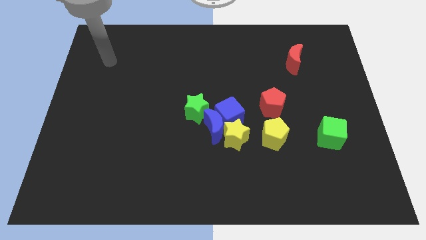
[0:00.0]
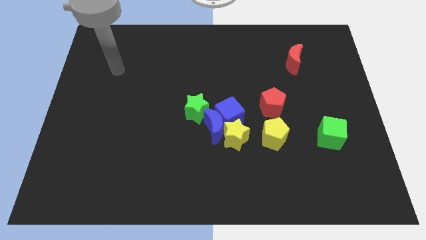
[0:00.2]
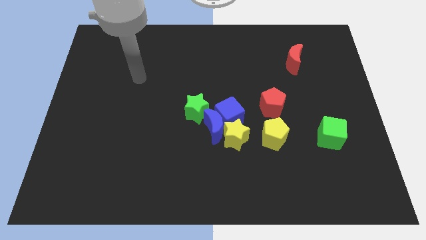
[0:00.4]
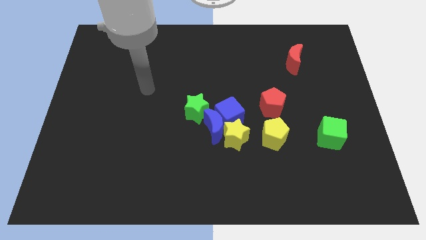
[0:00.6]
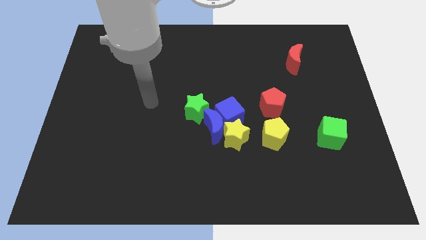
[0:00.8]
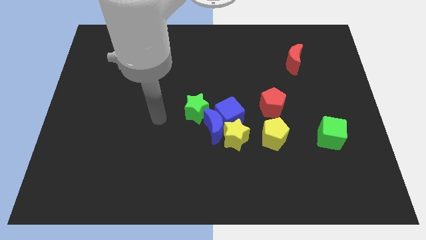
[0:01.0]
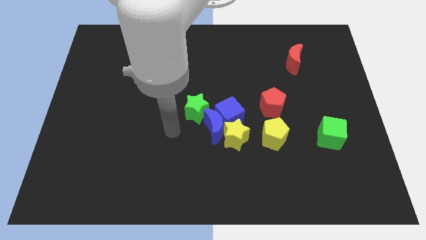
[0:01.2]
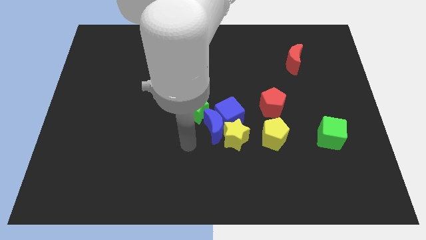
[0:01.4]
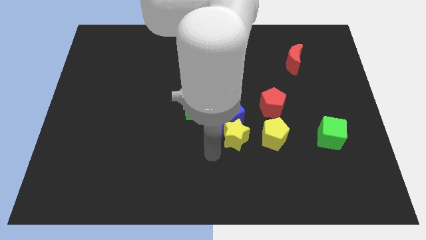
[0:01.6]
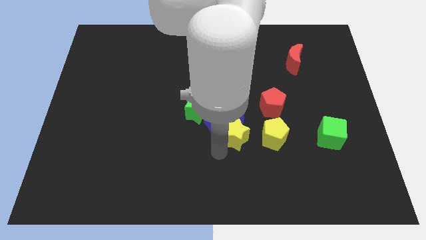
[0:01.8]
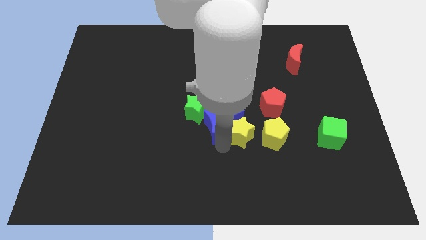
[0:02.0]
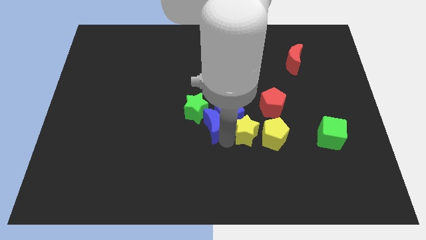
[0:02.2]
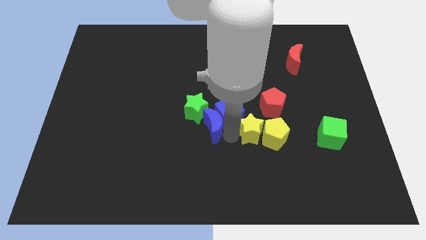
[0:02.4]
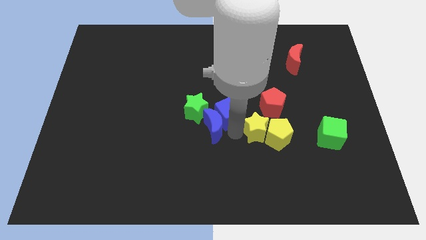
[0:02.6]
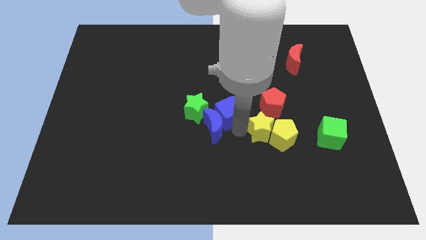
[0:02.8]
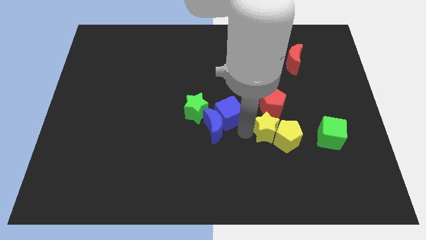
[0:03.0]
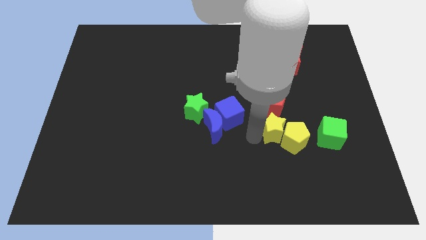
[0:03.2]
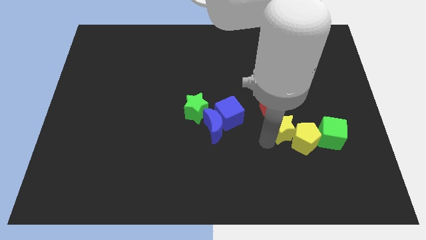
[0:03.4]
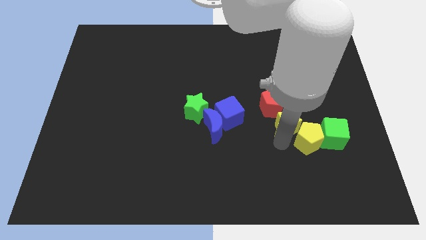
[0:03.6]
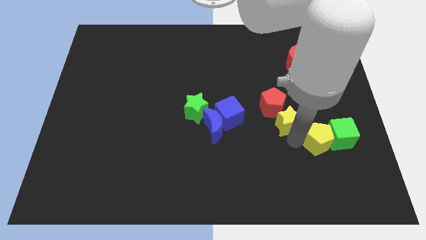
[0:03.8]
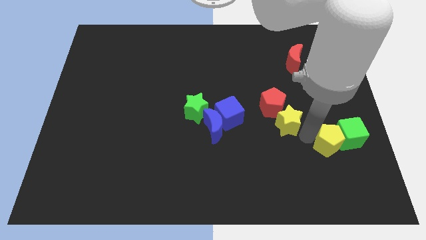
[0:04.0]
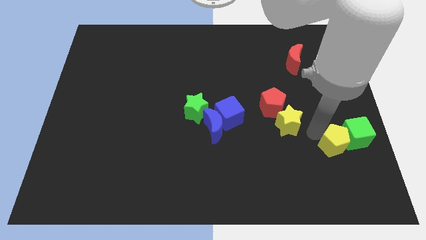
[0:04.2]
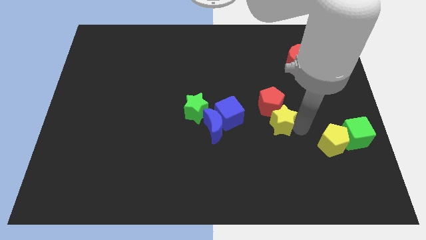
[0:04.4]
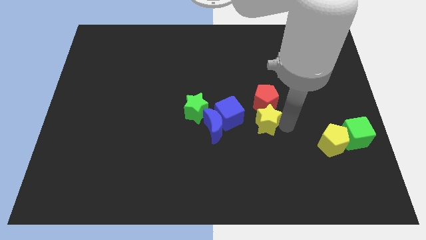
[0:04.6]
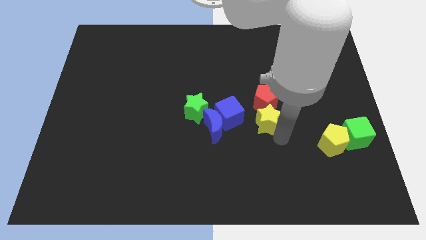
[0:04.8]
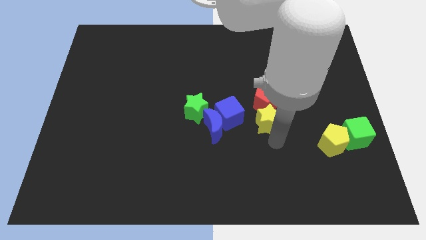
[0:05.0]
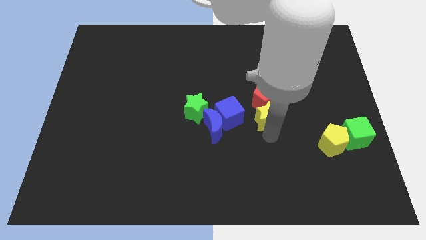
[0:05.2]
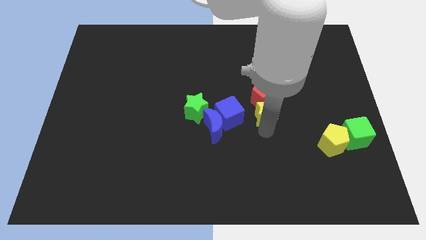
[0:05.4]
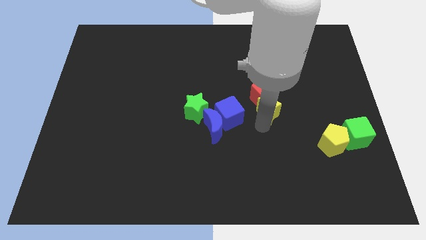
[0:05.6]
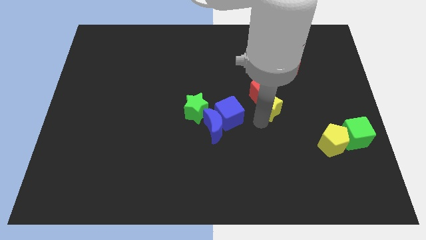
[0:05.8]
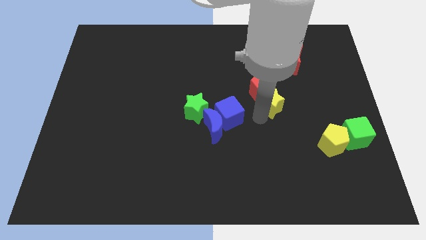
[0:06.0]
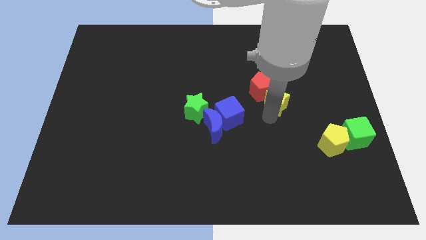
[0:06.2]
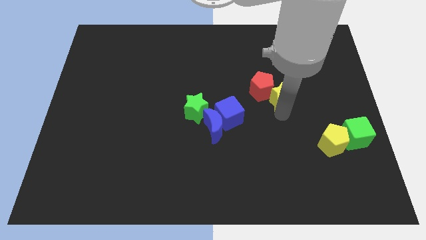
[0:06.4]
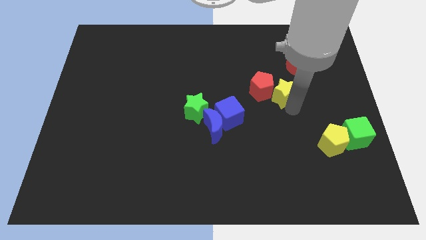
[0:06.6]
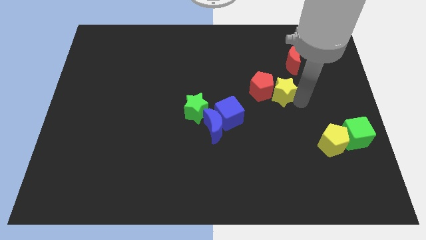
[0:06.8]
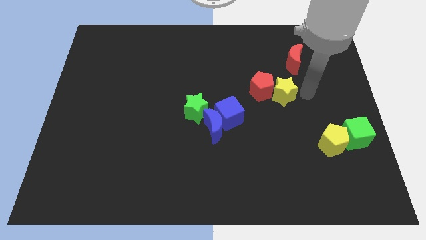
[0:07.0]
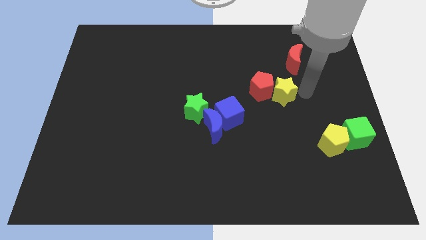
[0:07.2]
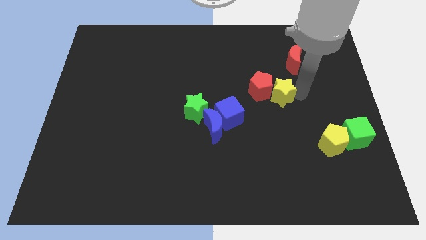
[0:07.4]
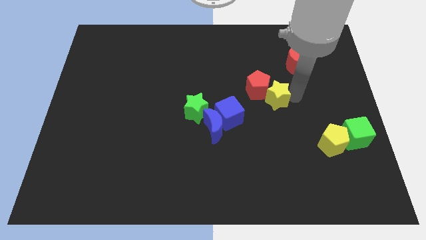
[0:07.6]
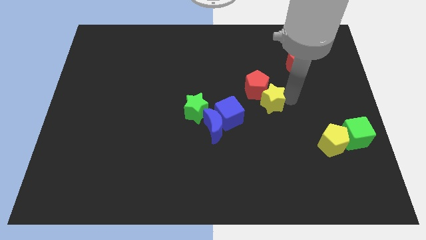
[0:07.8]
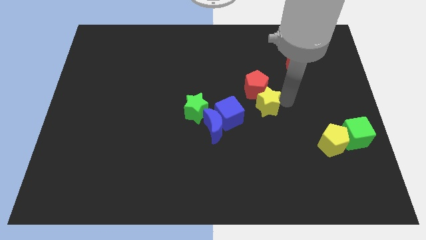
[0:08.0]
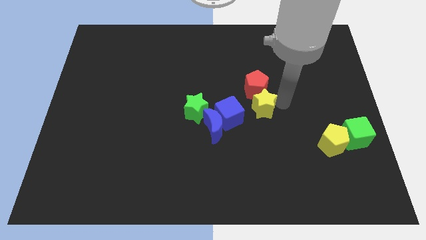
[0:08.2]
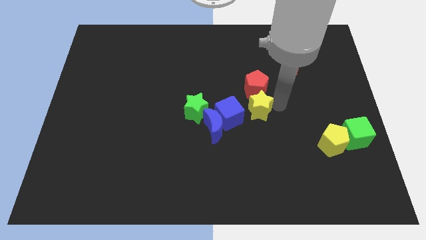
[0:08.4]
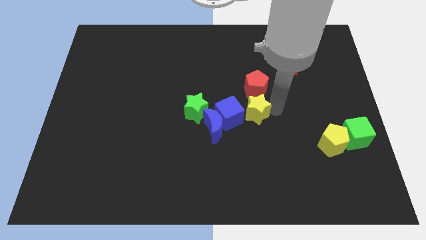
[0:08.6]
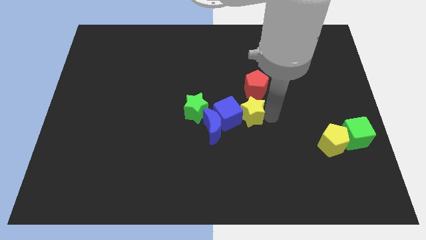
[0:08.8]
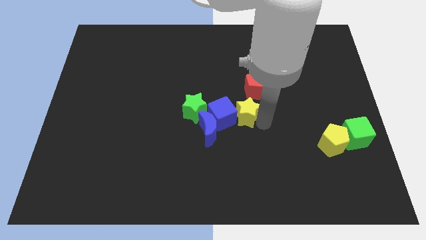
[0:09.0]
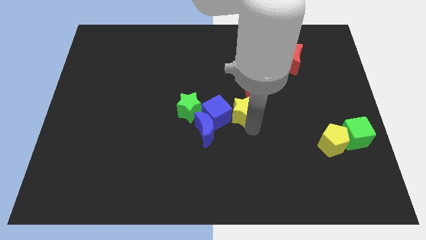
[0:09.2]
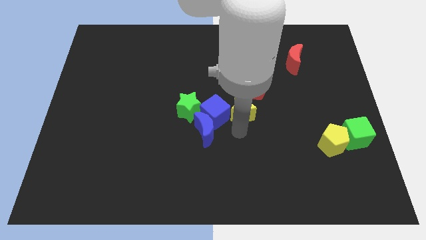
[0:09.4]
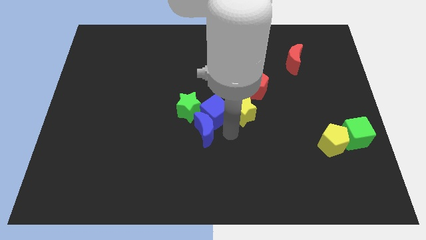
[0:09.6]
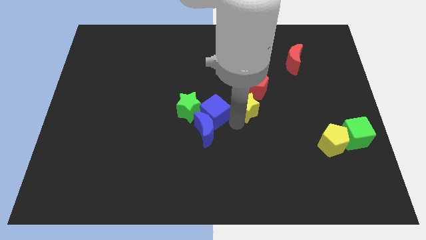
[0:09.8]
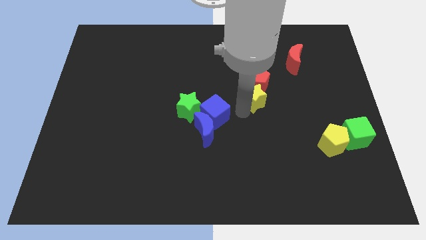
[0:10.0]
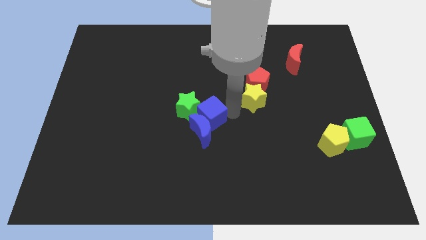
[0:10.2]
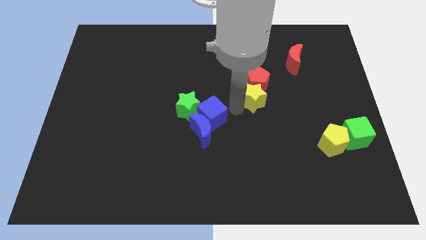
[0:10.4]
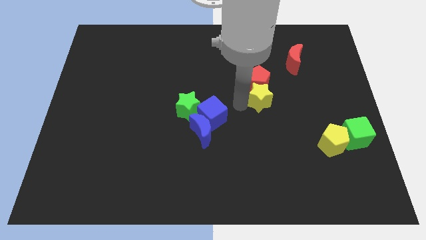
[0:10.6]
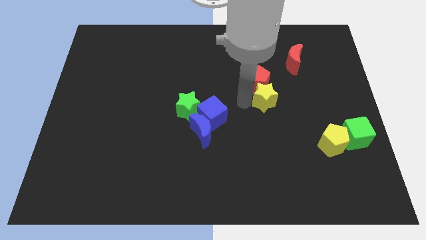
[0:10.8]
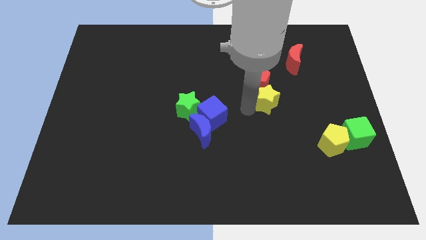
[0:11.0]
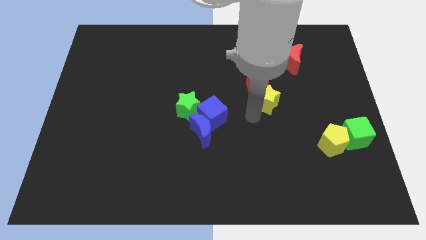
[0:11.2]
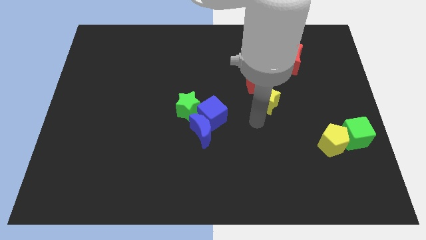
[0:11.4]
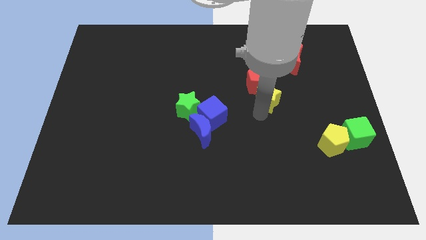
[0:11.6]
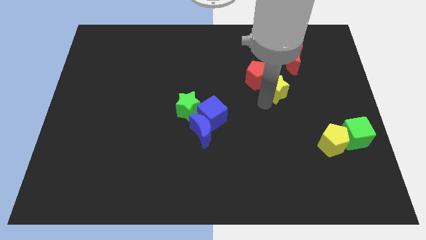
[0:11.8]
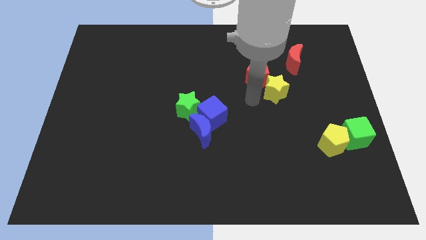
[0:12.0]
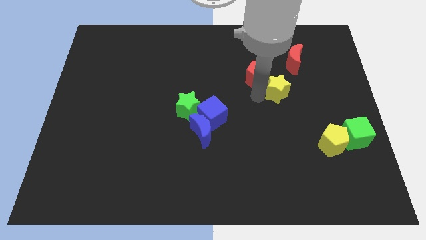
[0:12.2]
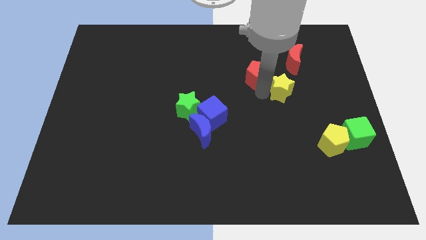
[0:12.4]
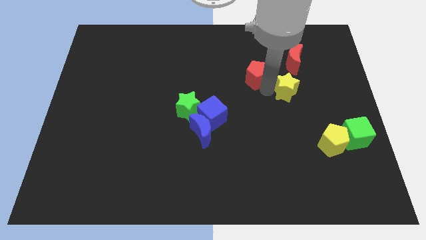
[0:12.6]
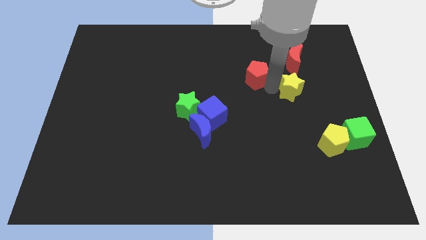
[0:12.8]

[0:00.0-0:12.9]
slide the yellow star upwards and then right

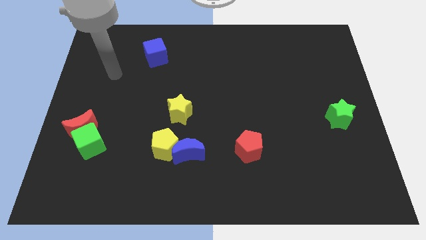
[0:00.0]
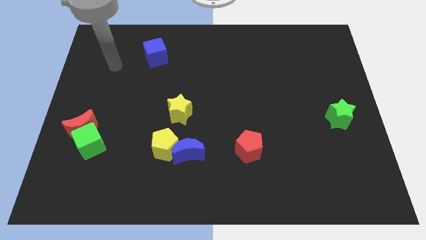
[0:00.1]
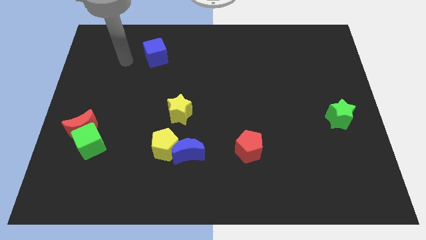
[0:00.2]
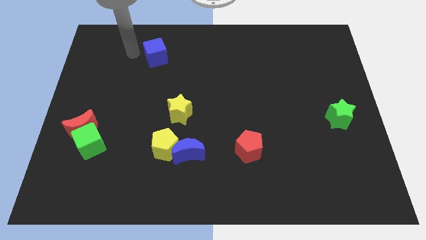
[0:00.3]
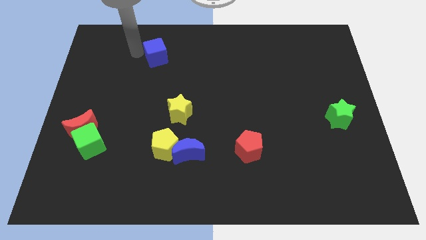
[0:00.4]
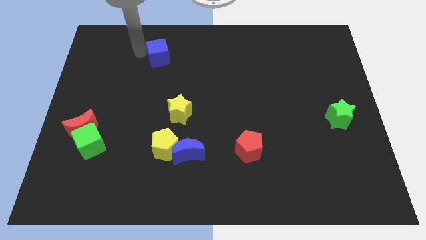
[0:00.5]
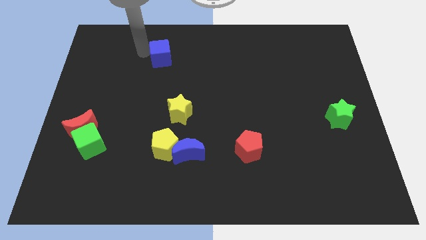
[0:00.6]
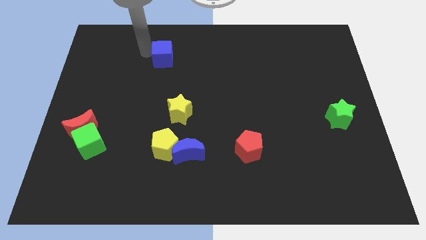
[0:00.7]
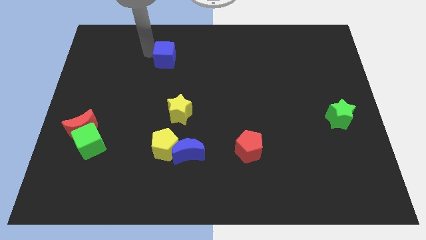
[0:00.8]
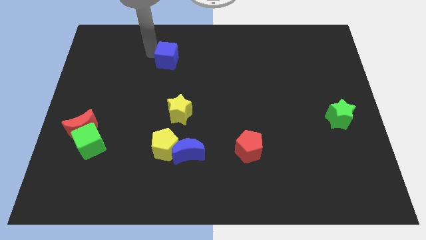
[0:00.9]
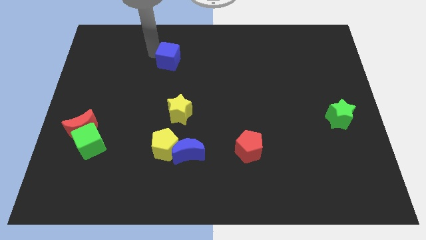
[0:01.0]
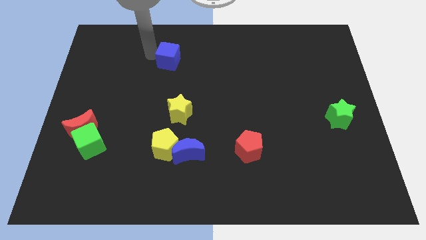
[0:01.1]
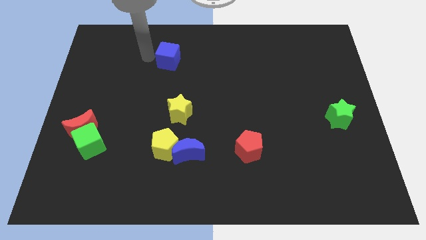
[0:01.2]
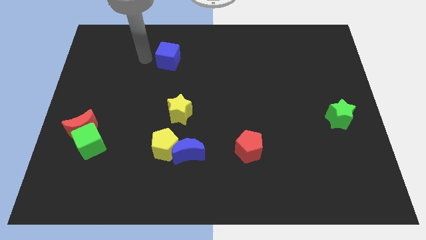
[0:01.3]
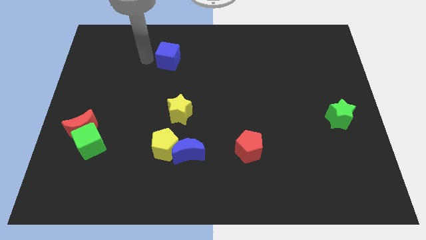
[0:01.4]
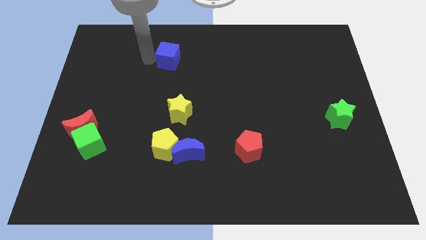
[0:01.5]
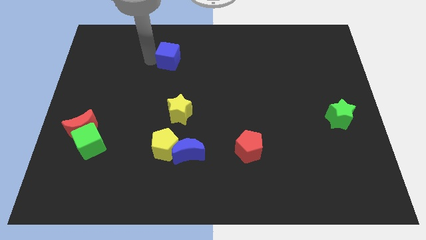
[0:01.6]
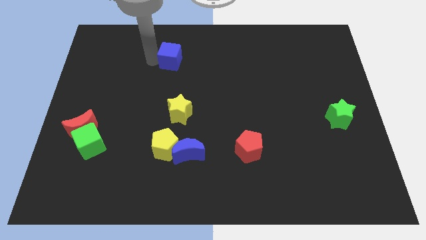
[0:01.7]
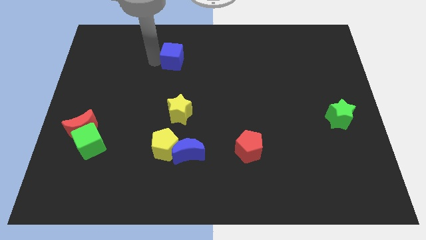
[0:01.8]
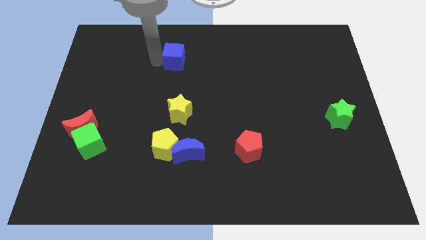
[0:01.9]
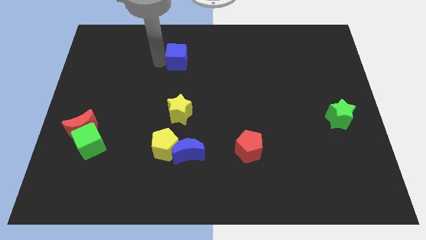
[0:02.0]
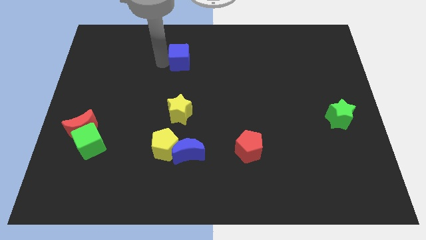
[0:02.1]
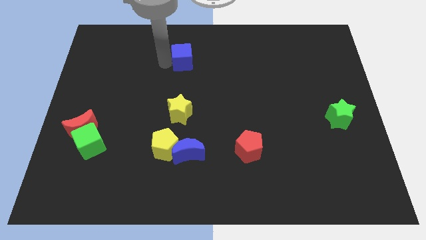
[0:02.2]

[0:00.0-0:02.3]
move the blue cube right slightly
